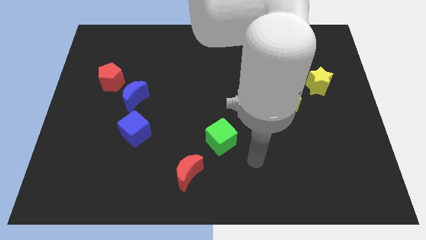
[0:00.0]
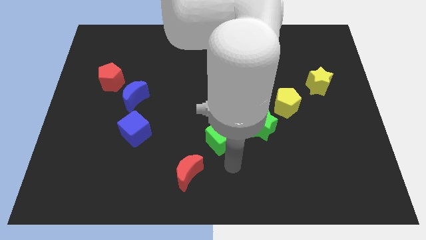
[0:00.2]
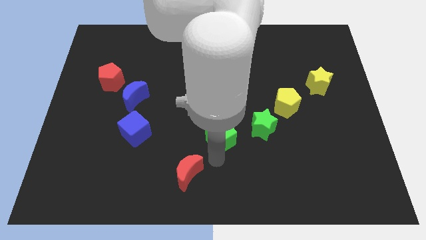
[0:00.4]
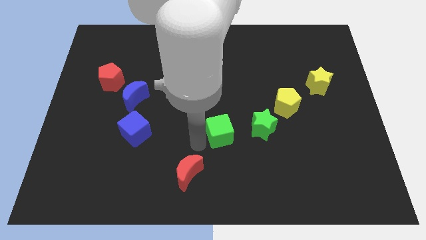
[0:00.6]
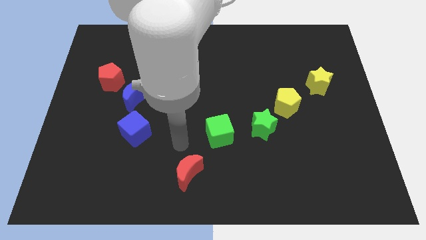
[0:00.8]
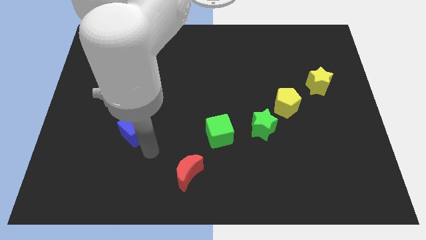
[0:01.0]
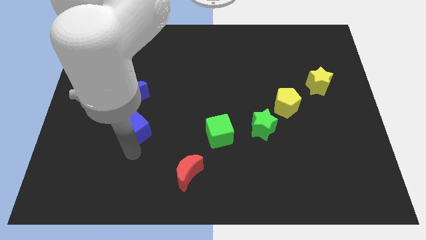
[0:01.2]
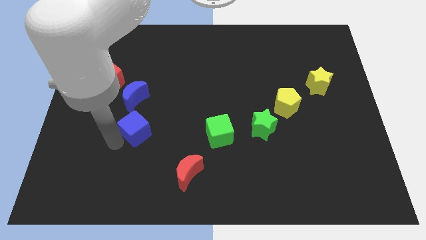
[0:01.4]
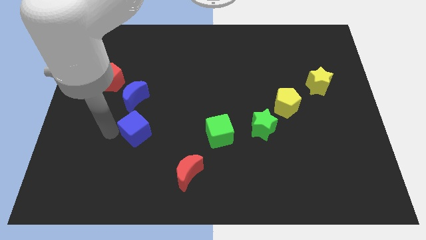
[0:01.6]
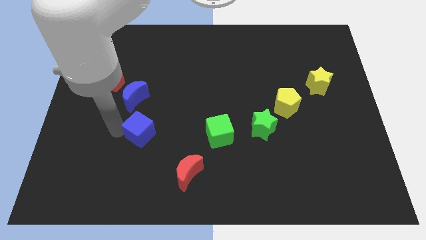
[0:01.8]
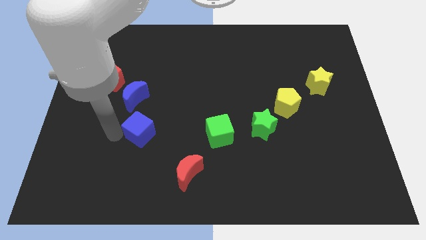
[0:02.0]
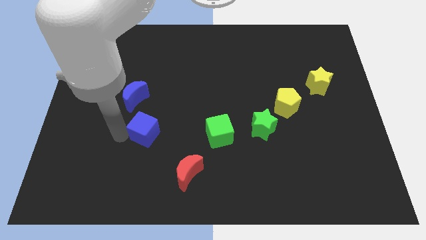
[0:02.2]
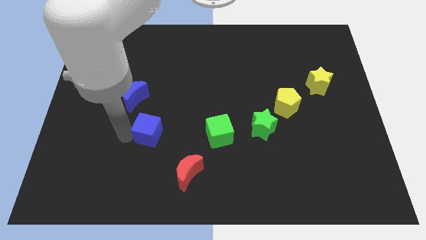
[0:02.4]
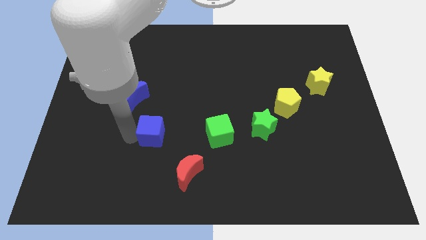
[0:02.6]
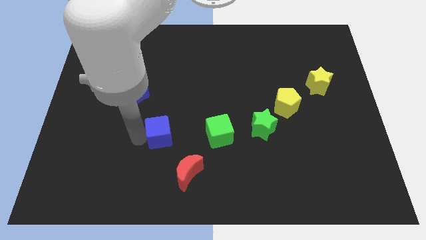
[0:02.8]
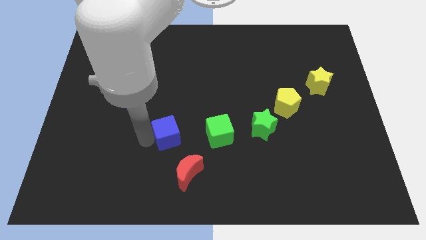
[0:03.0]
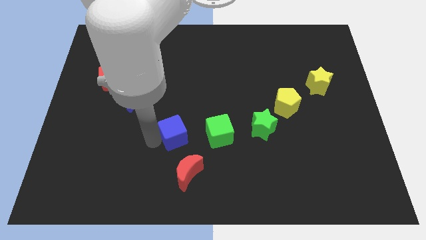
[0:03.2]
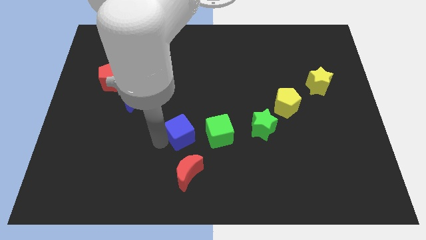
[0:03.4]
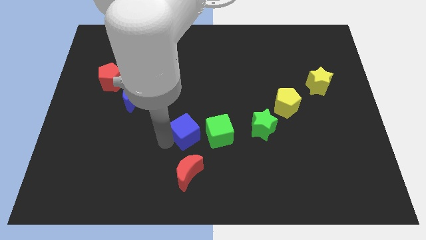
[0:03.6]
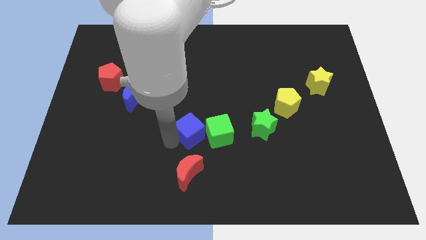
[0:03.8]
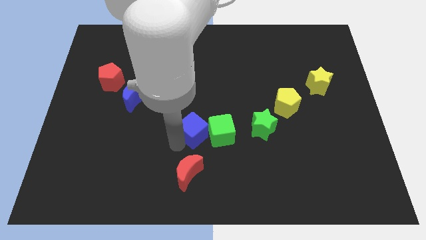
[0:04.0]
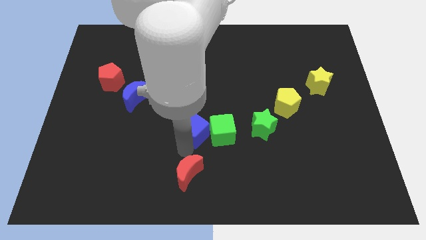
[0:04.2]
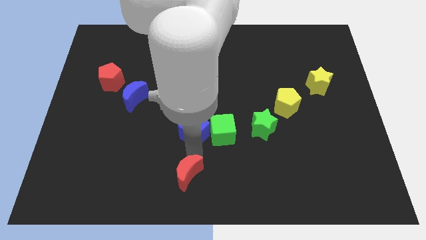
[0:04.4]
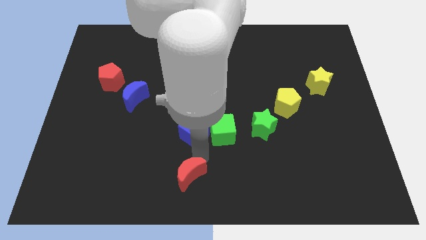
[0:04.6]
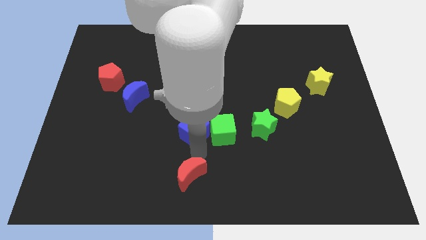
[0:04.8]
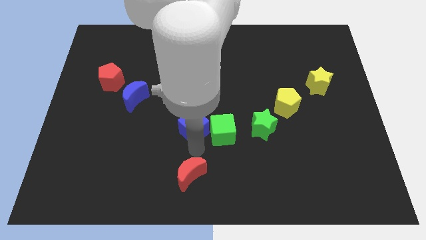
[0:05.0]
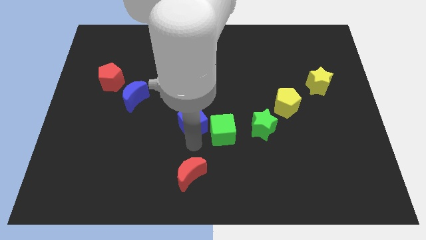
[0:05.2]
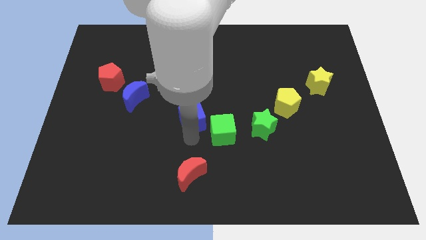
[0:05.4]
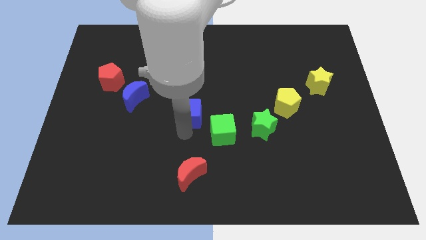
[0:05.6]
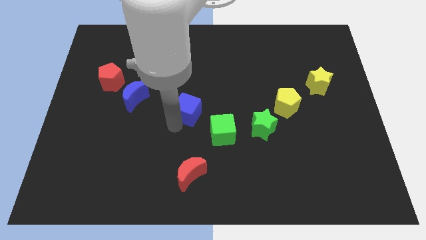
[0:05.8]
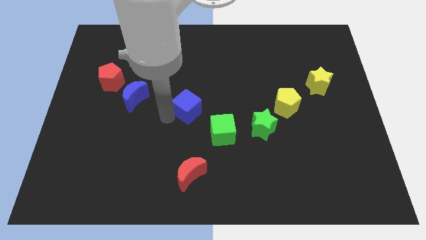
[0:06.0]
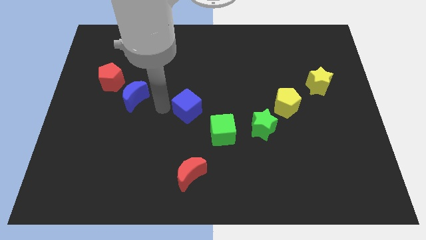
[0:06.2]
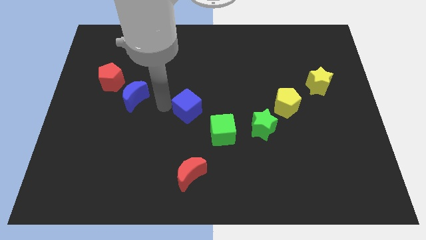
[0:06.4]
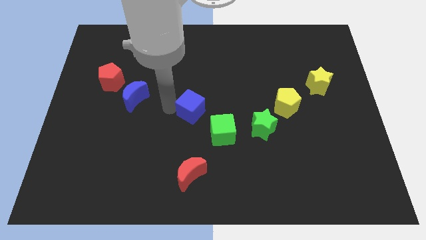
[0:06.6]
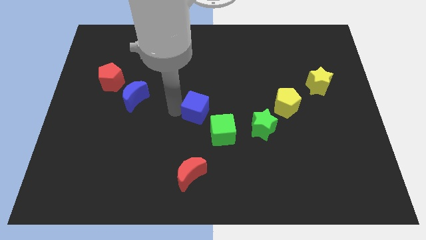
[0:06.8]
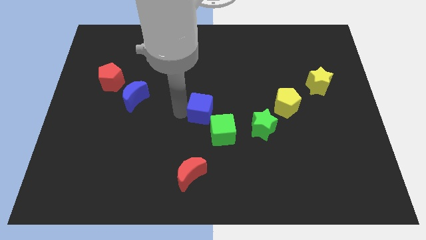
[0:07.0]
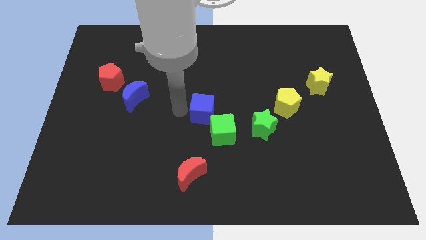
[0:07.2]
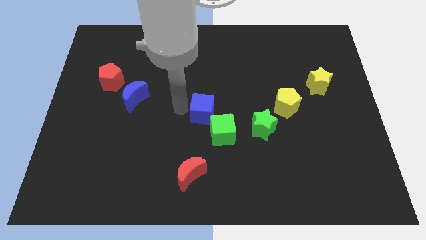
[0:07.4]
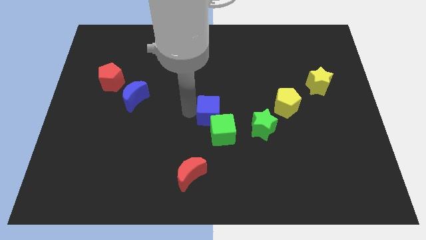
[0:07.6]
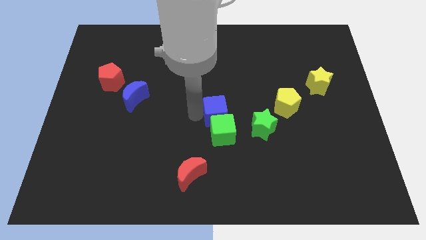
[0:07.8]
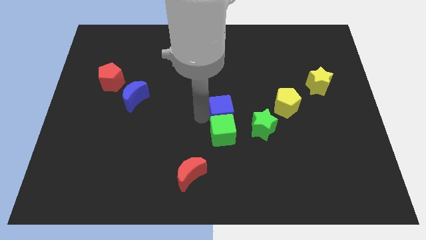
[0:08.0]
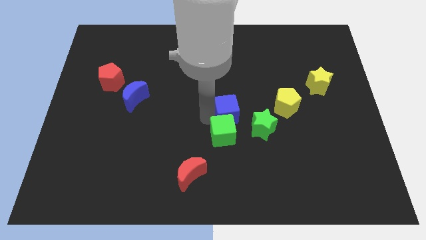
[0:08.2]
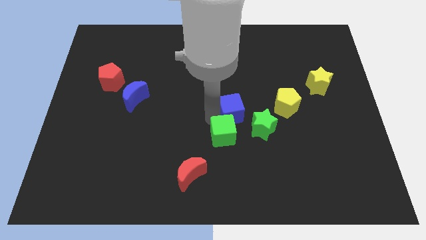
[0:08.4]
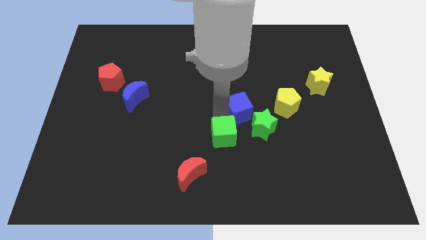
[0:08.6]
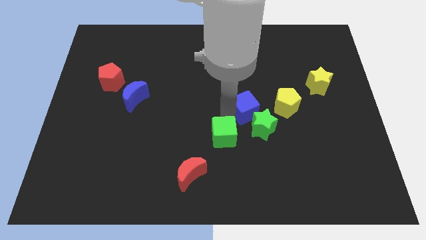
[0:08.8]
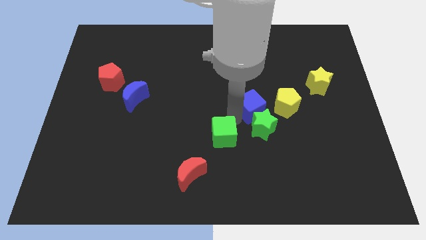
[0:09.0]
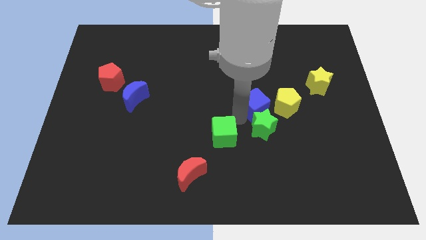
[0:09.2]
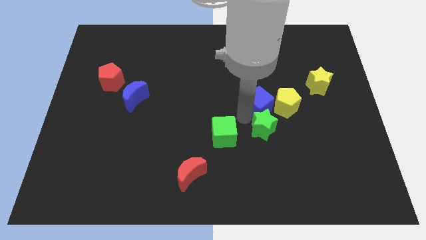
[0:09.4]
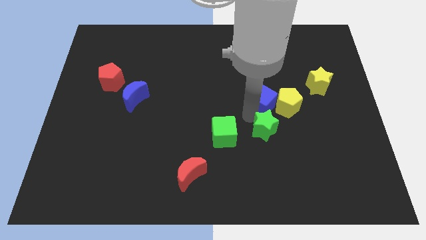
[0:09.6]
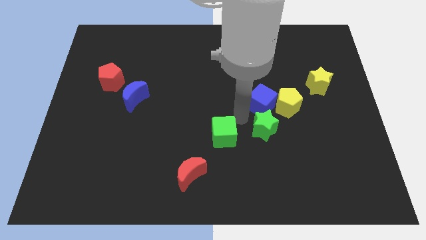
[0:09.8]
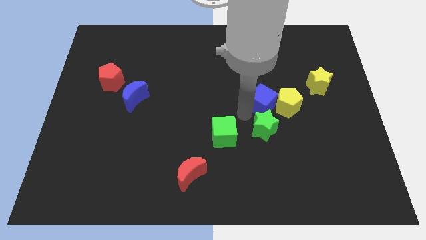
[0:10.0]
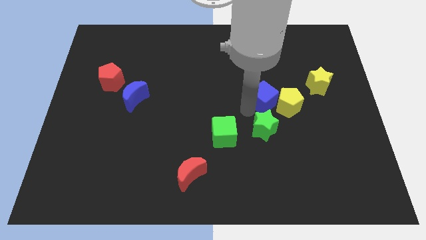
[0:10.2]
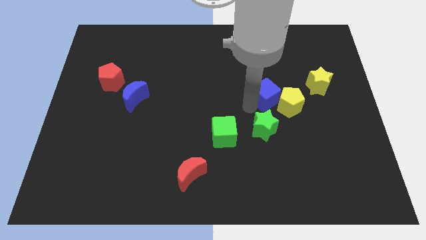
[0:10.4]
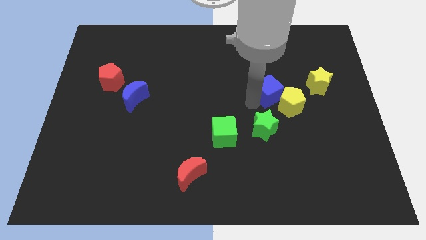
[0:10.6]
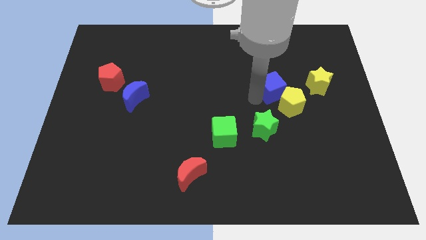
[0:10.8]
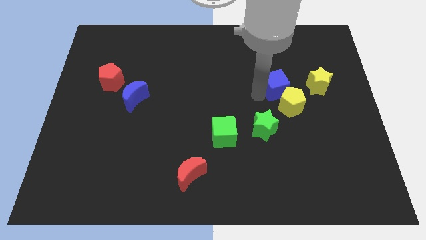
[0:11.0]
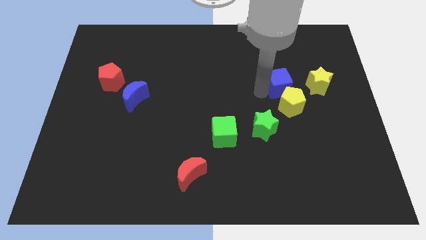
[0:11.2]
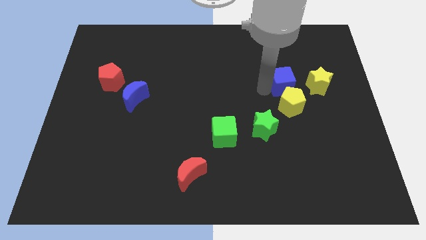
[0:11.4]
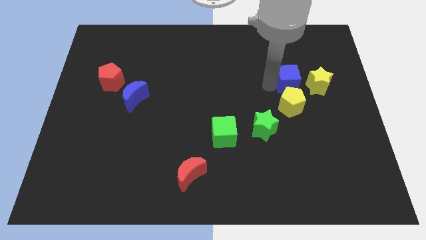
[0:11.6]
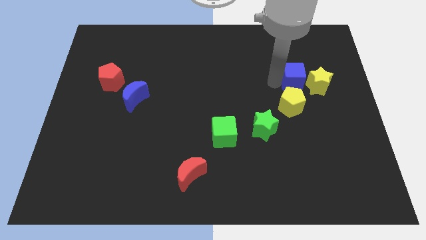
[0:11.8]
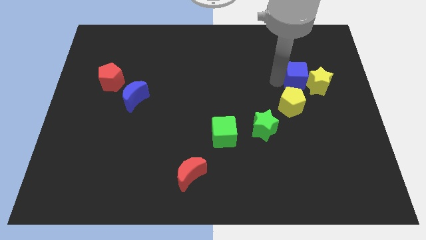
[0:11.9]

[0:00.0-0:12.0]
put the blue cube next to the yellow star

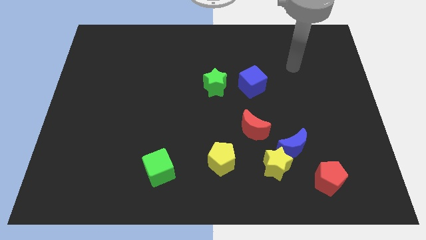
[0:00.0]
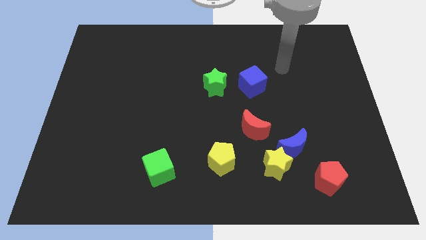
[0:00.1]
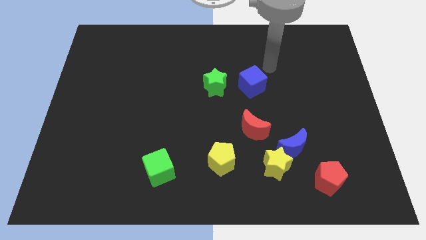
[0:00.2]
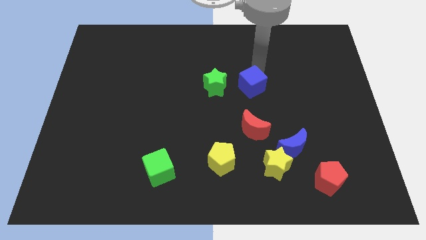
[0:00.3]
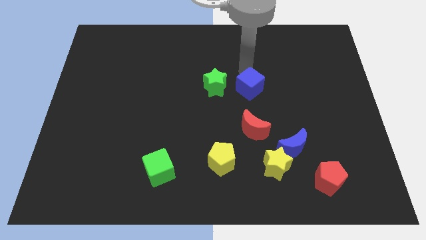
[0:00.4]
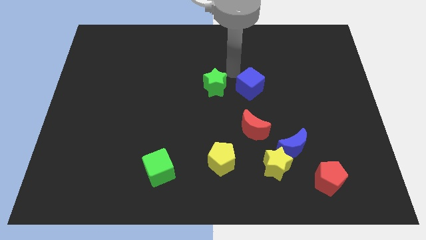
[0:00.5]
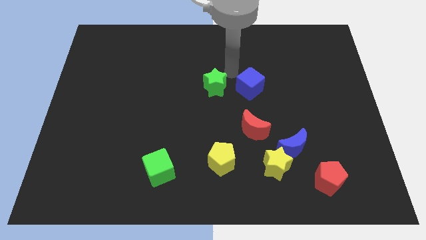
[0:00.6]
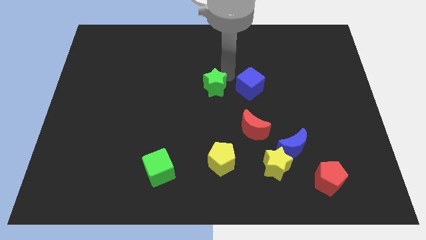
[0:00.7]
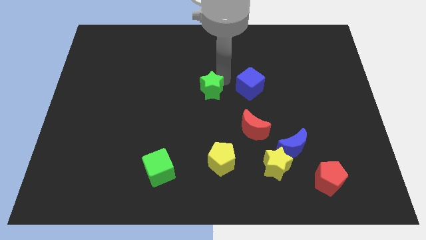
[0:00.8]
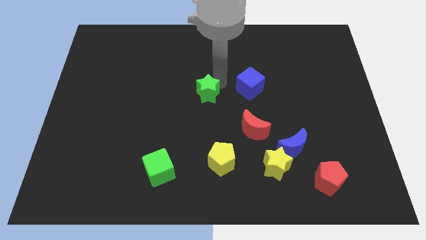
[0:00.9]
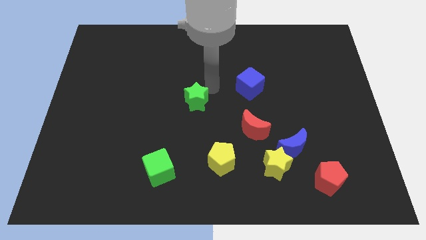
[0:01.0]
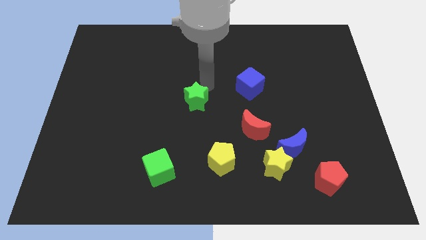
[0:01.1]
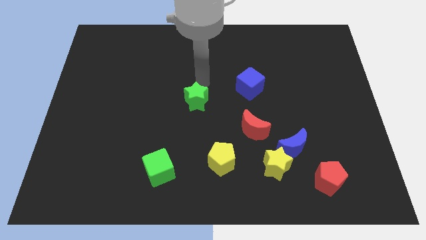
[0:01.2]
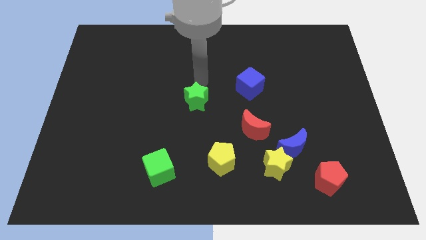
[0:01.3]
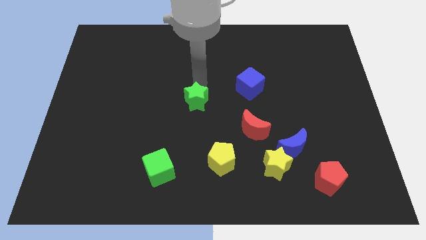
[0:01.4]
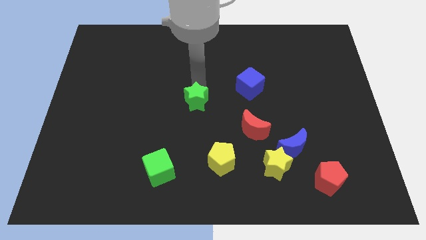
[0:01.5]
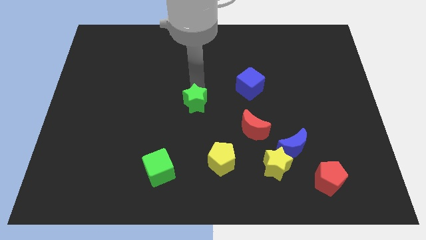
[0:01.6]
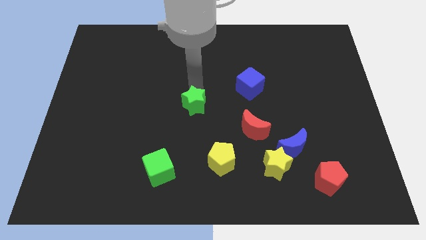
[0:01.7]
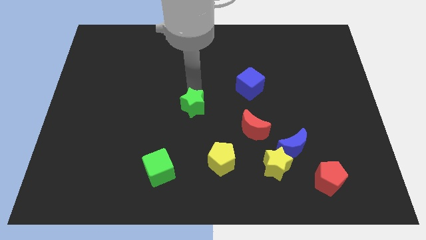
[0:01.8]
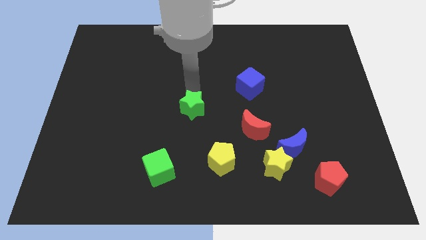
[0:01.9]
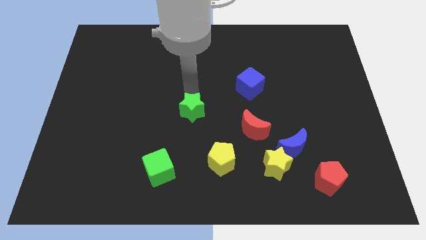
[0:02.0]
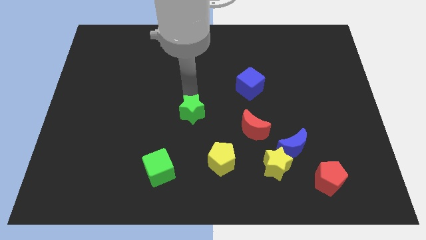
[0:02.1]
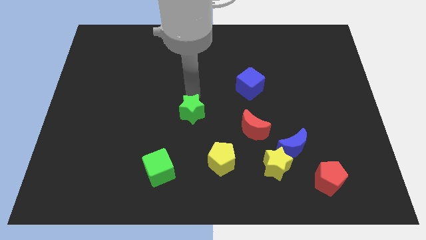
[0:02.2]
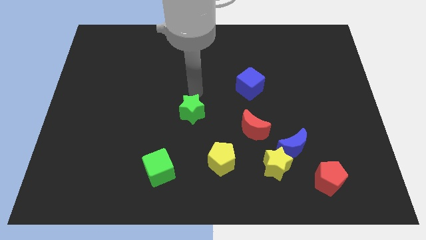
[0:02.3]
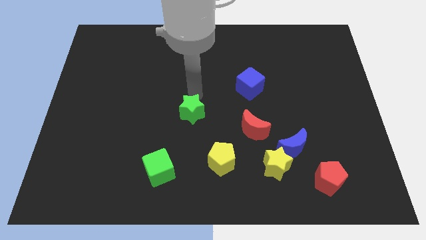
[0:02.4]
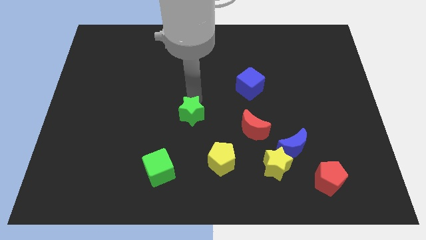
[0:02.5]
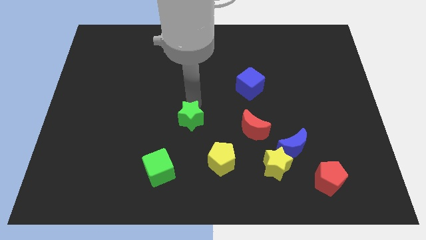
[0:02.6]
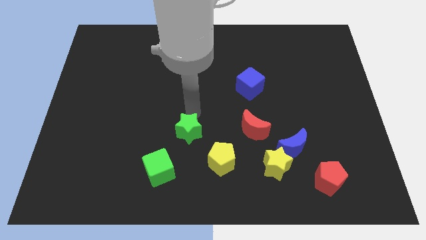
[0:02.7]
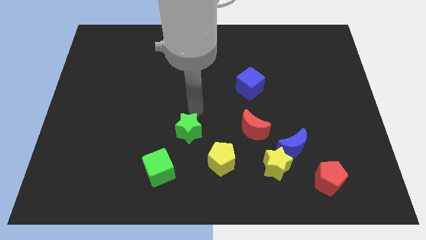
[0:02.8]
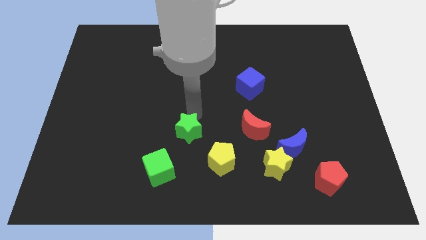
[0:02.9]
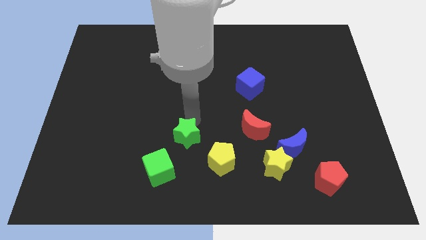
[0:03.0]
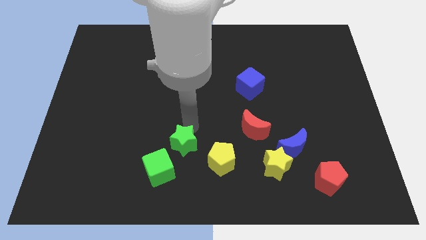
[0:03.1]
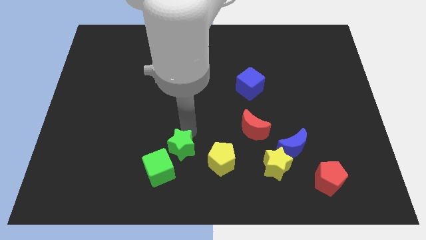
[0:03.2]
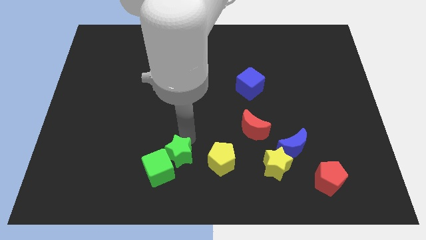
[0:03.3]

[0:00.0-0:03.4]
move the green star towards the green cube
